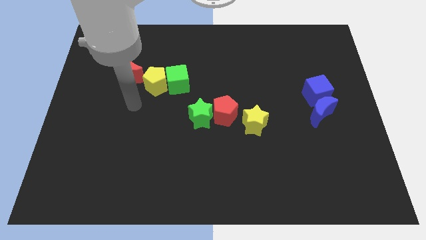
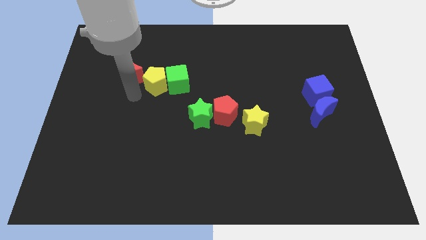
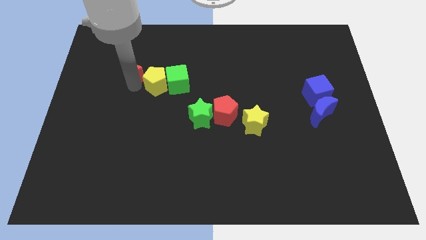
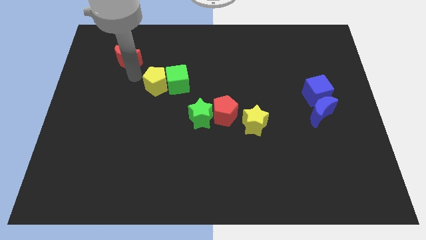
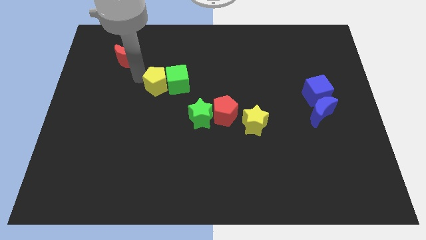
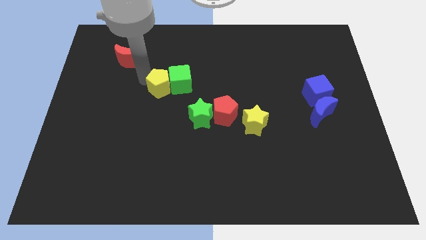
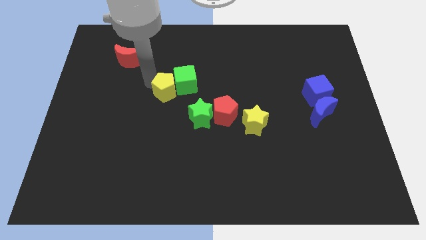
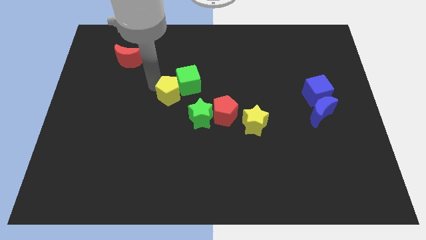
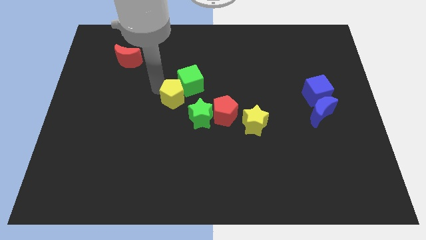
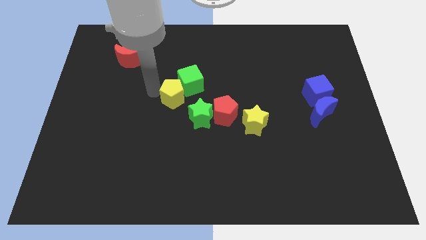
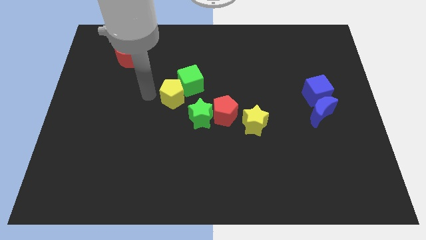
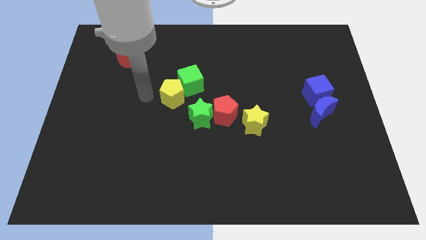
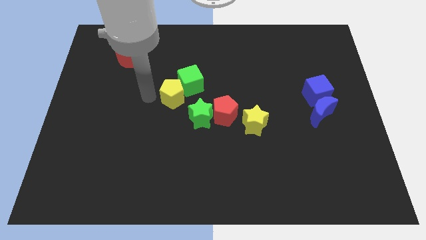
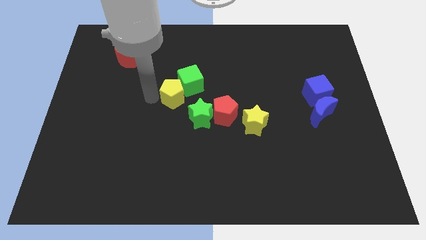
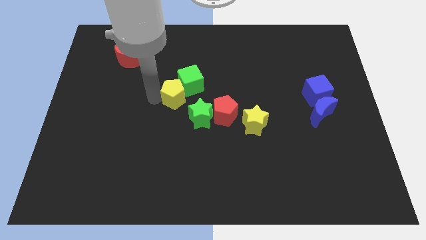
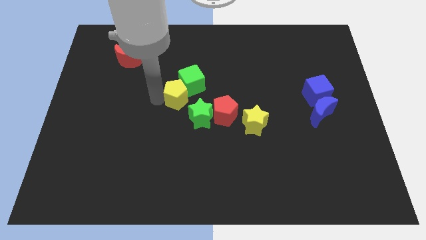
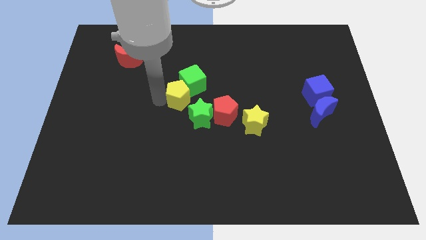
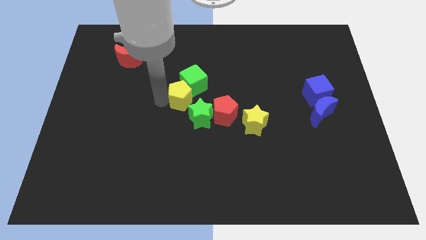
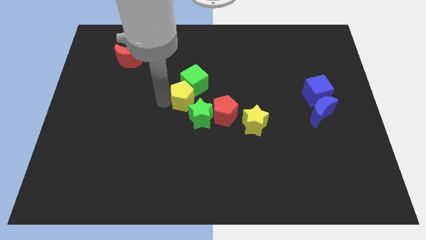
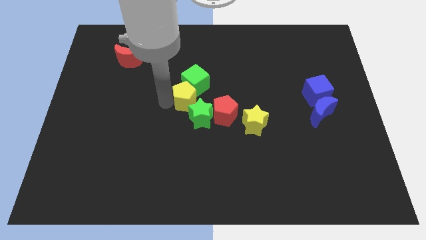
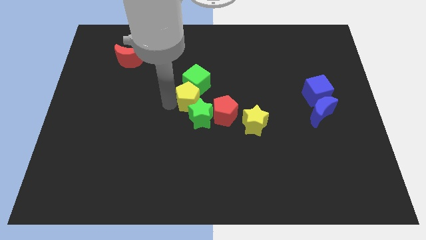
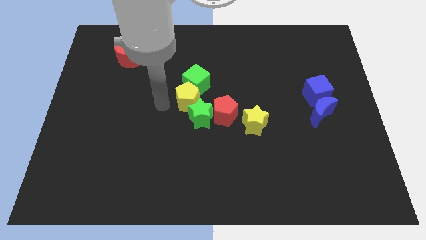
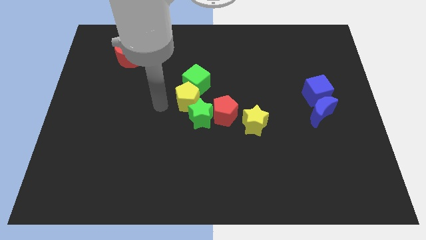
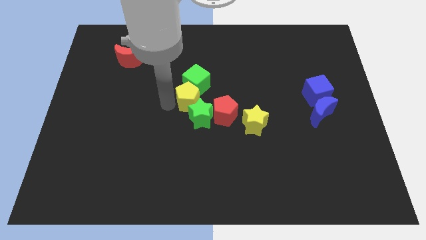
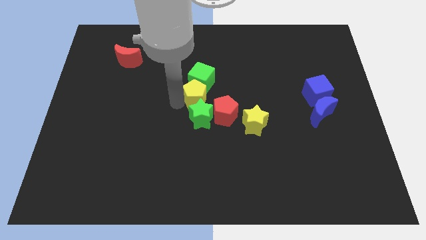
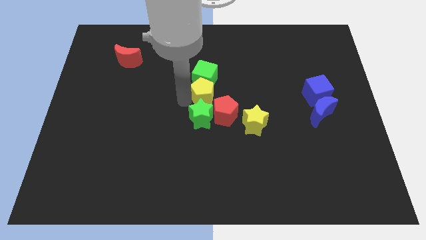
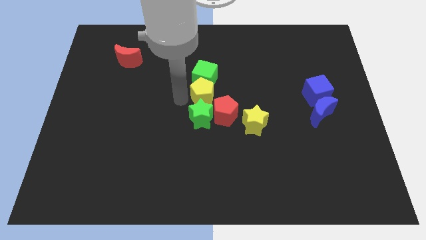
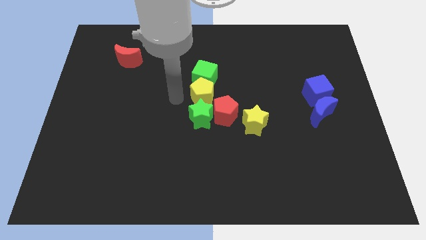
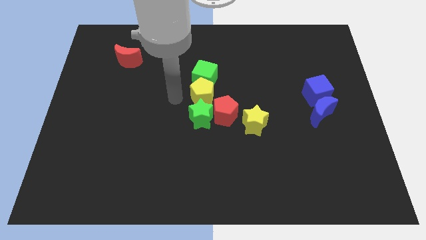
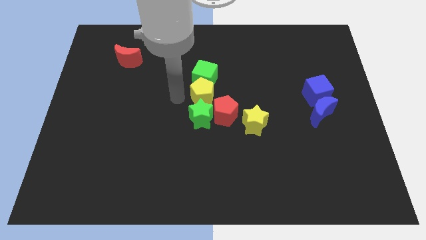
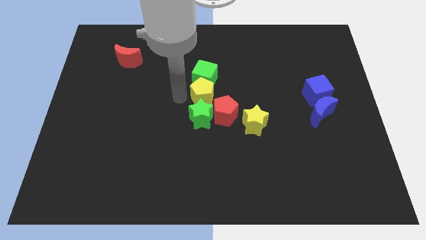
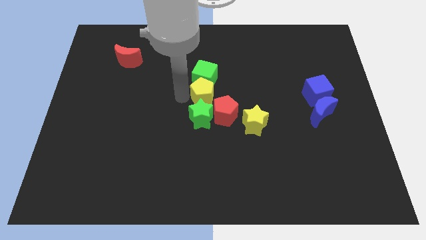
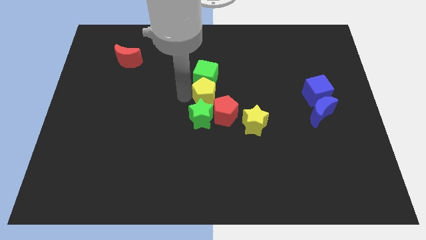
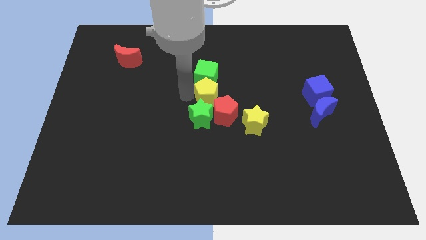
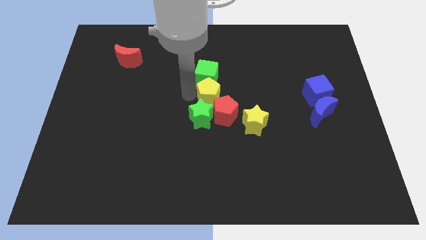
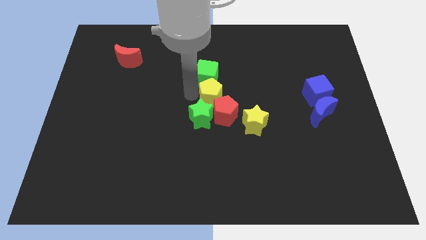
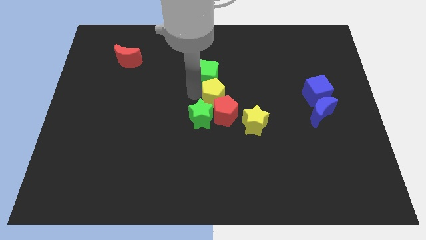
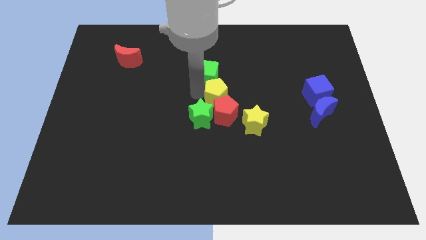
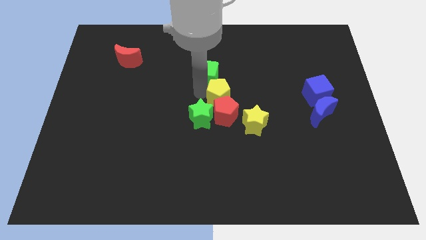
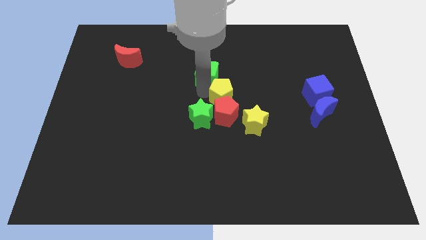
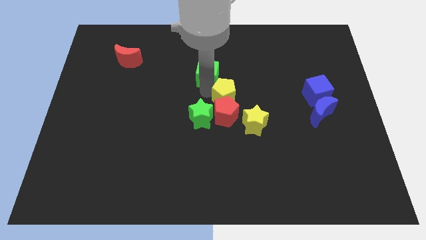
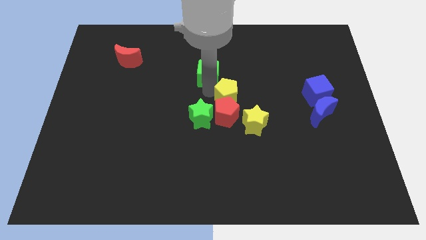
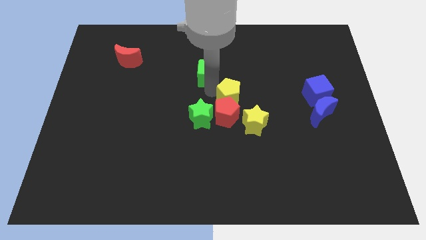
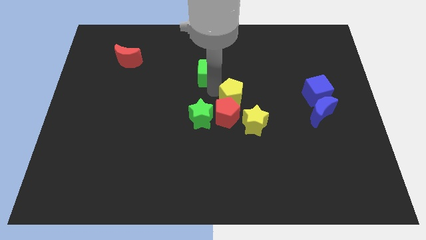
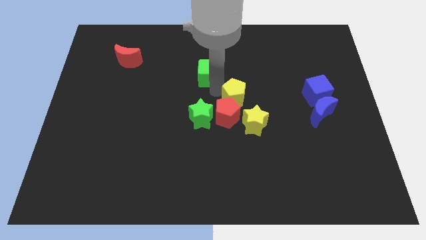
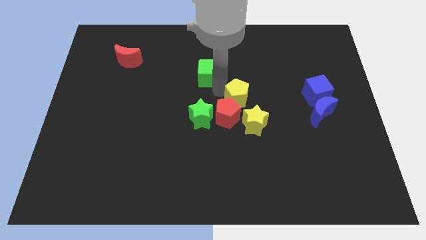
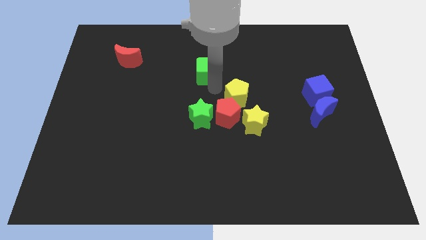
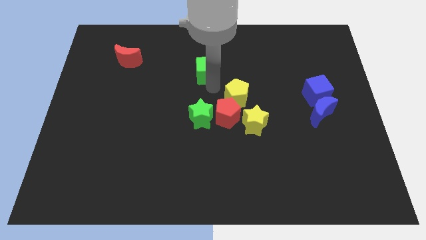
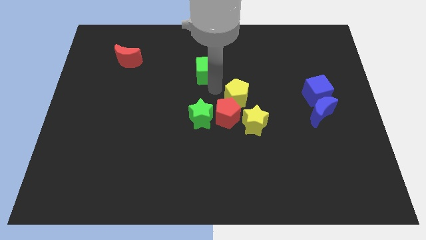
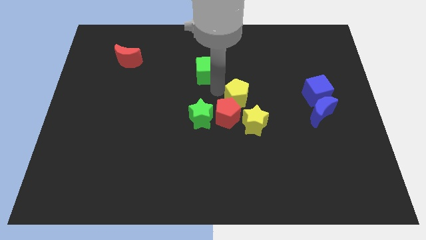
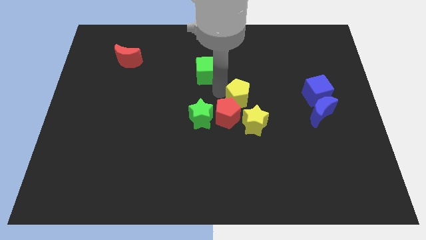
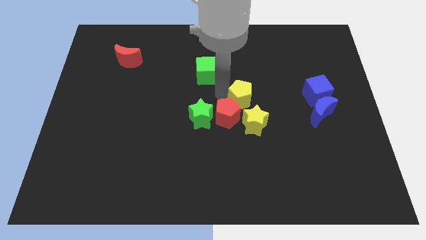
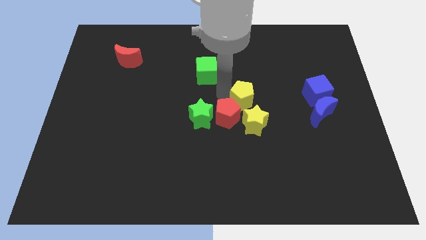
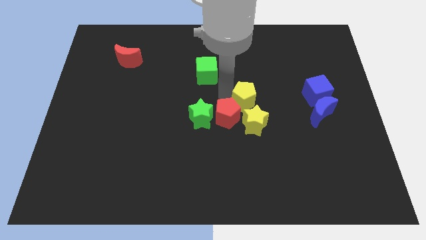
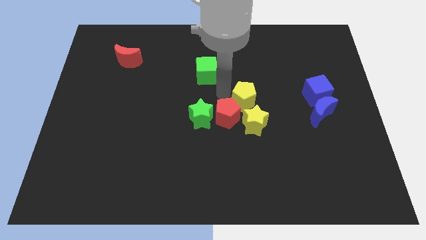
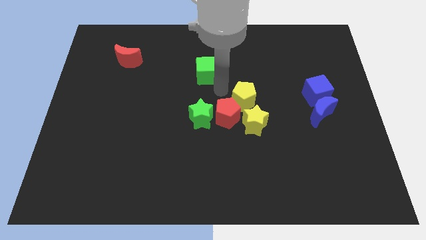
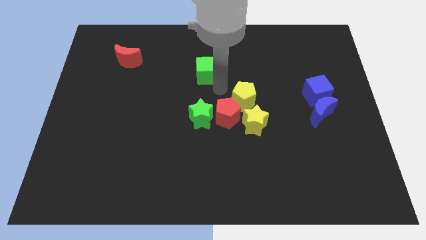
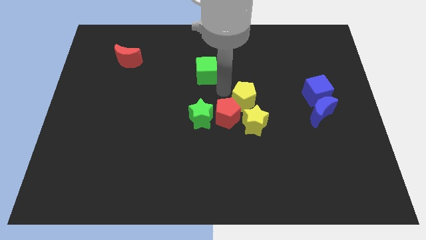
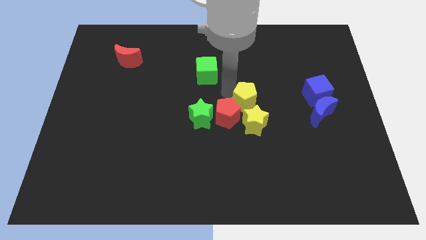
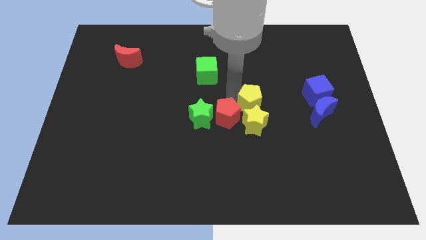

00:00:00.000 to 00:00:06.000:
push the yellow pentagon right of the green star
